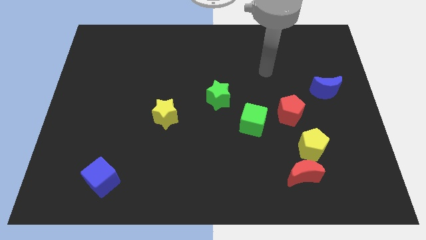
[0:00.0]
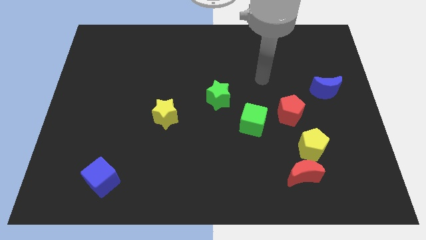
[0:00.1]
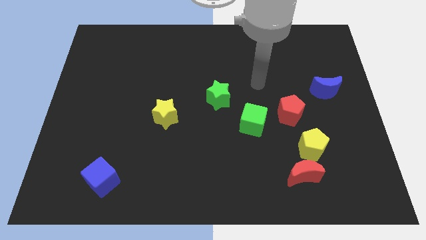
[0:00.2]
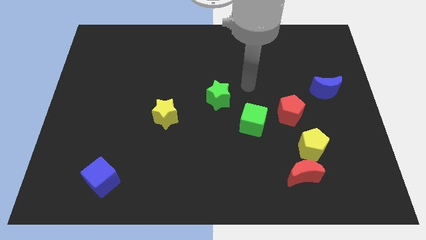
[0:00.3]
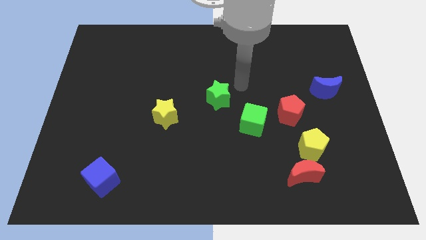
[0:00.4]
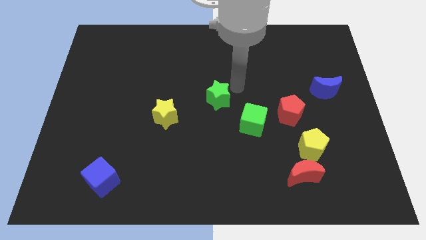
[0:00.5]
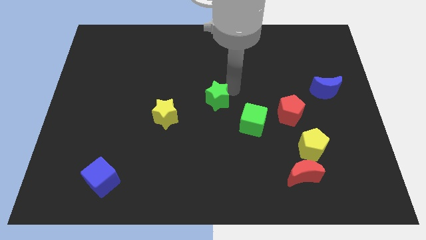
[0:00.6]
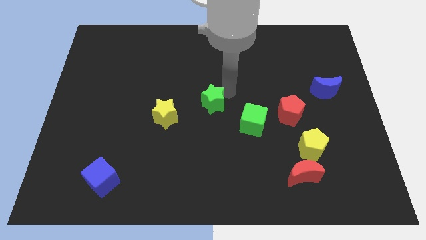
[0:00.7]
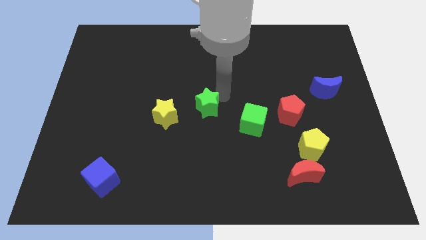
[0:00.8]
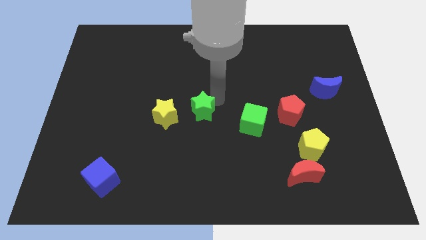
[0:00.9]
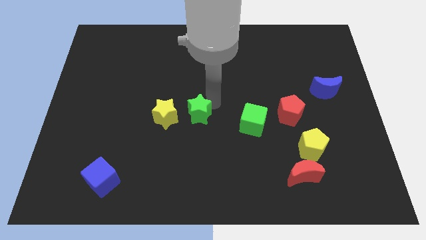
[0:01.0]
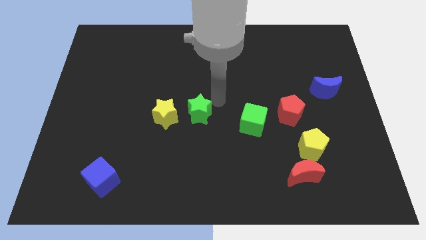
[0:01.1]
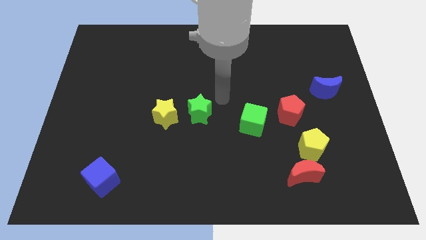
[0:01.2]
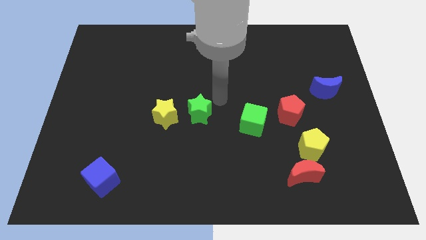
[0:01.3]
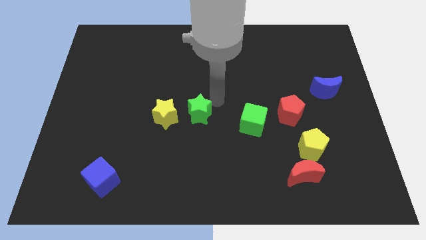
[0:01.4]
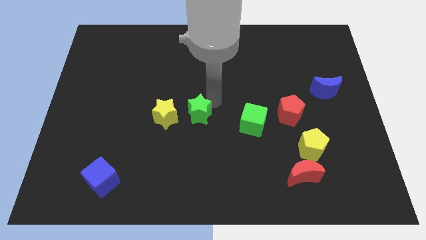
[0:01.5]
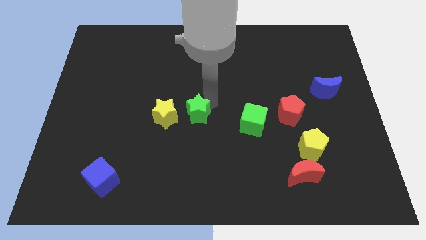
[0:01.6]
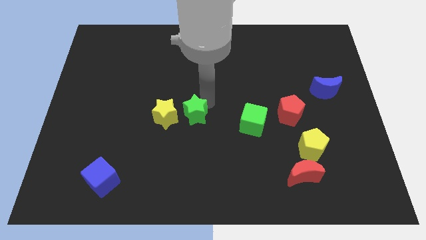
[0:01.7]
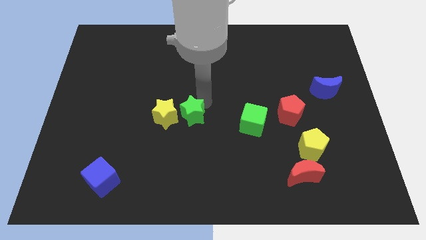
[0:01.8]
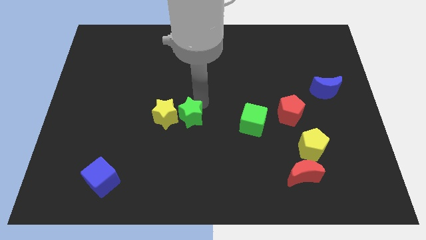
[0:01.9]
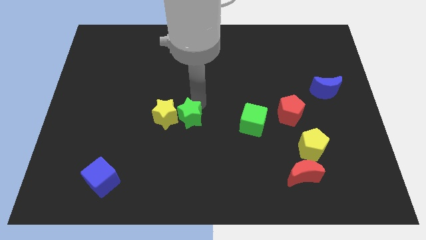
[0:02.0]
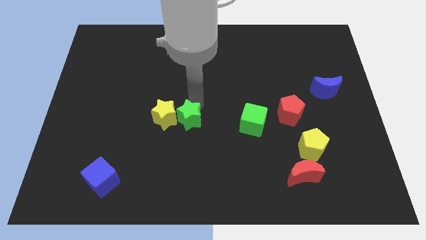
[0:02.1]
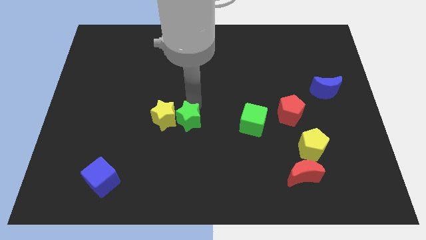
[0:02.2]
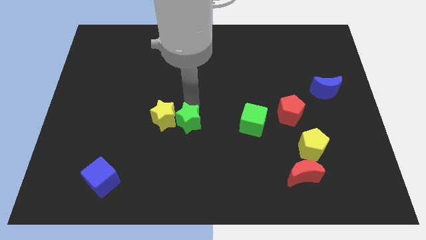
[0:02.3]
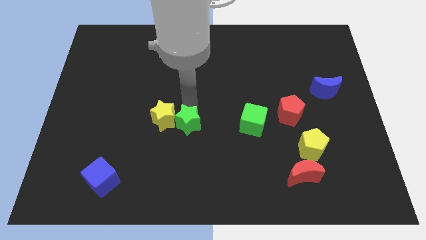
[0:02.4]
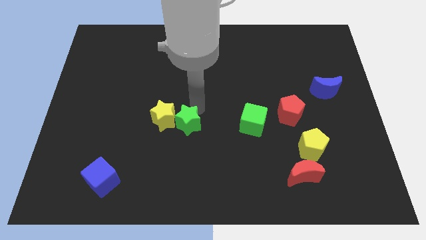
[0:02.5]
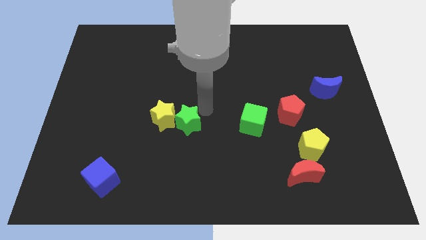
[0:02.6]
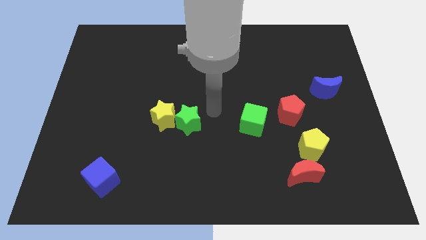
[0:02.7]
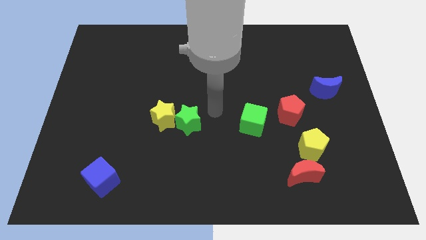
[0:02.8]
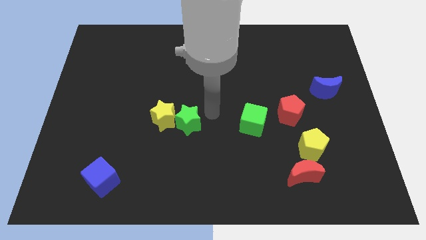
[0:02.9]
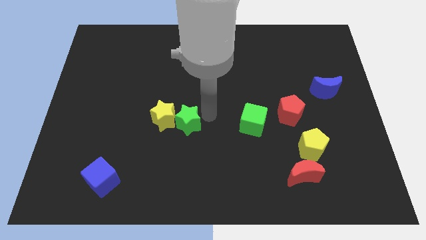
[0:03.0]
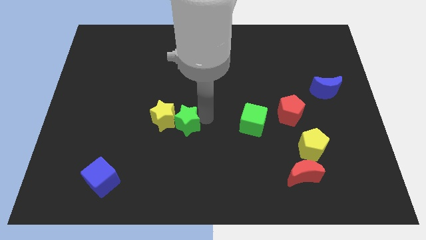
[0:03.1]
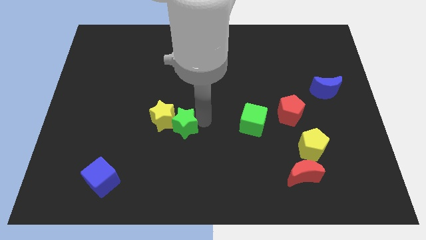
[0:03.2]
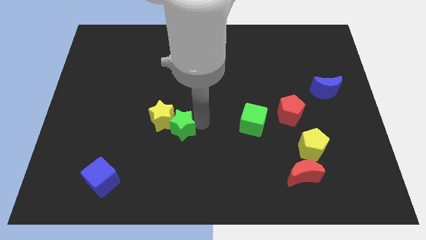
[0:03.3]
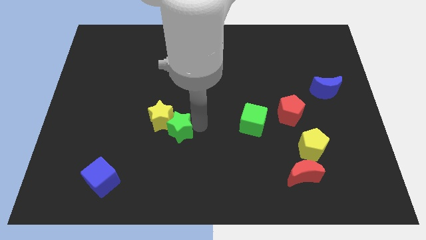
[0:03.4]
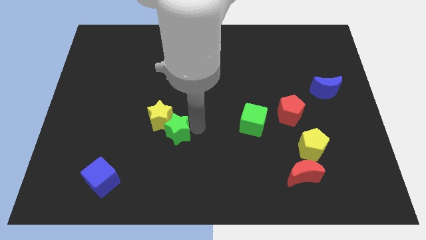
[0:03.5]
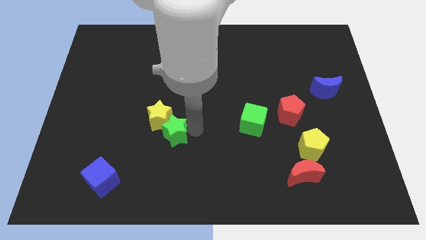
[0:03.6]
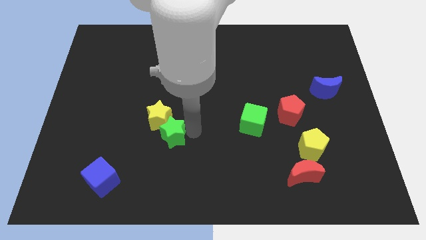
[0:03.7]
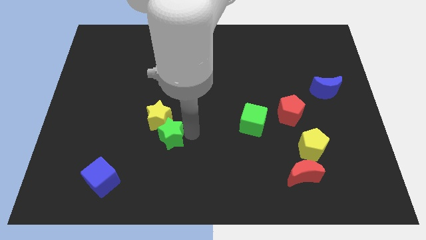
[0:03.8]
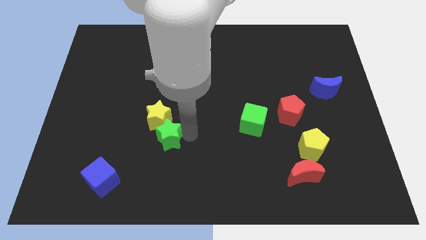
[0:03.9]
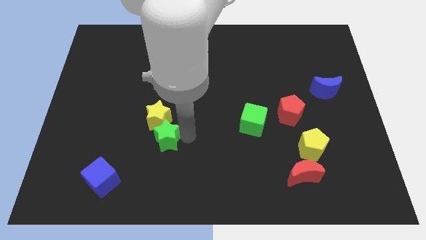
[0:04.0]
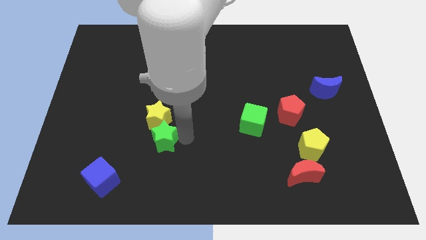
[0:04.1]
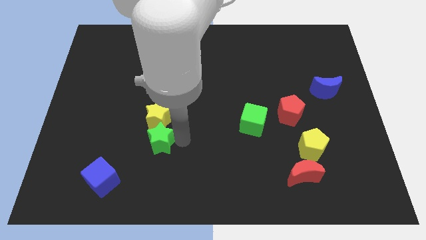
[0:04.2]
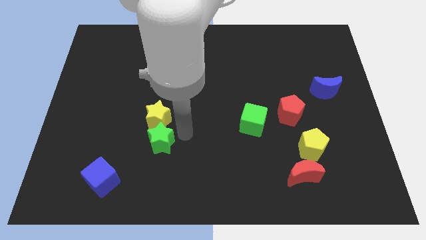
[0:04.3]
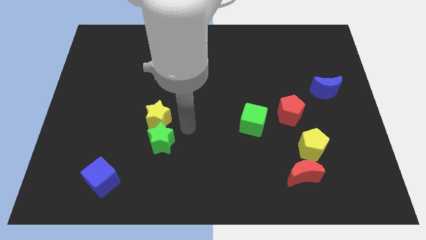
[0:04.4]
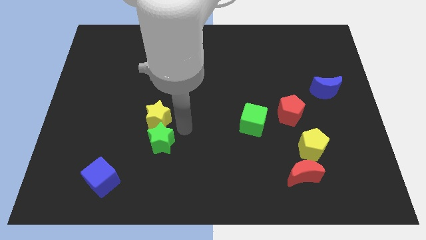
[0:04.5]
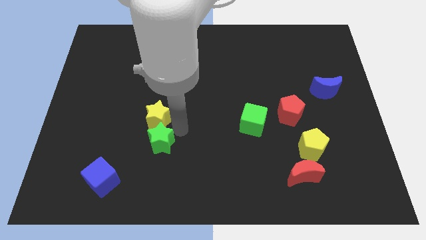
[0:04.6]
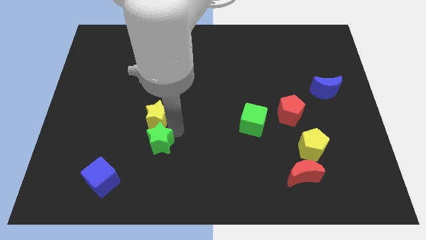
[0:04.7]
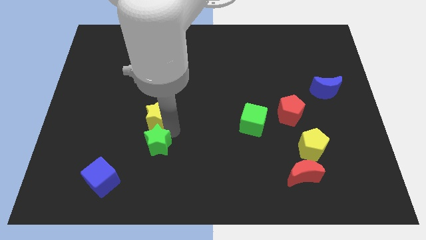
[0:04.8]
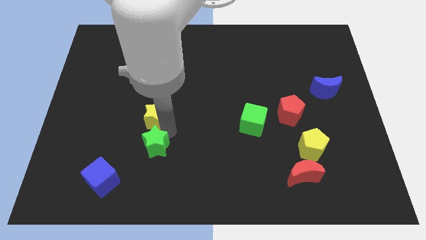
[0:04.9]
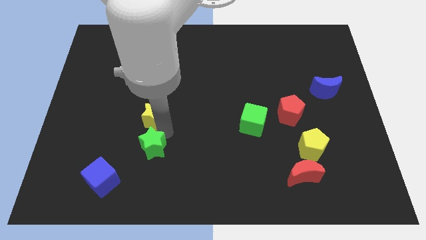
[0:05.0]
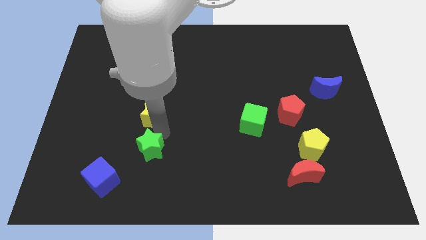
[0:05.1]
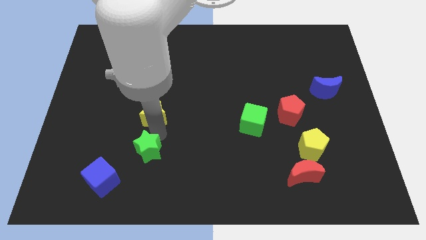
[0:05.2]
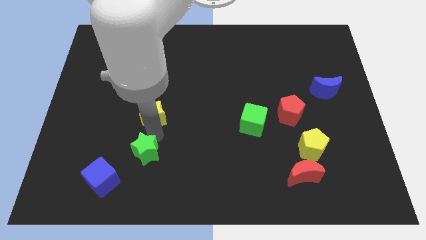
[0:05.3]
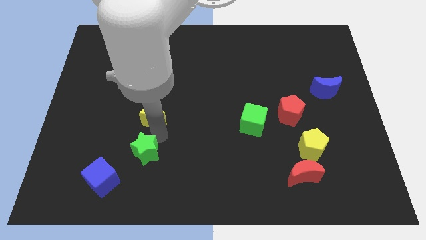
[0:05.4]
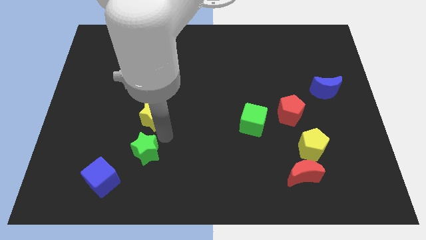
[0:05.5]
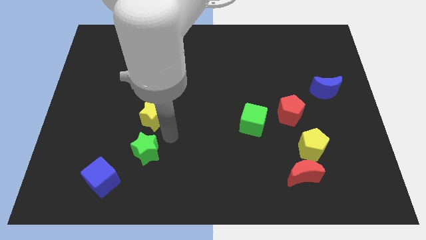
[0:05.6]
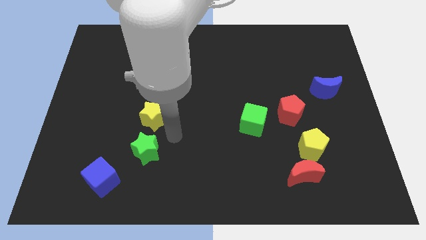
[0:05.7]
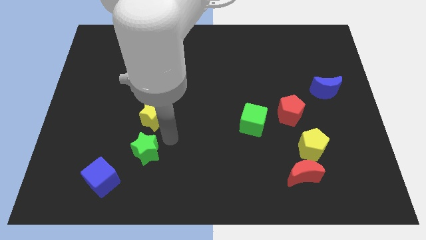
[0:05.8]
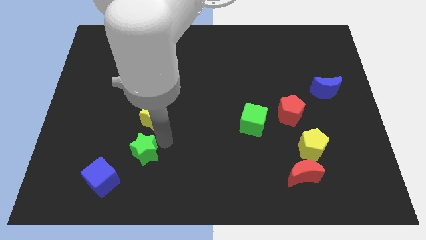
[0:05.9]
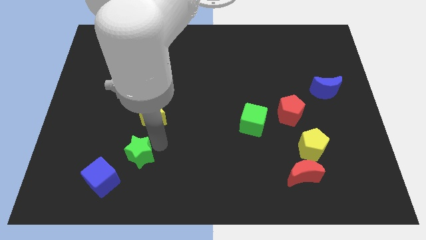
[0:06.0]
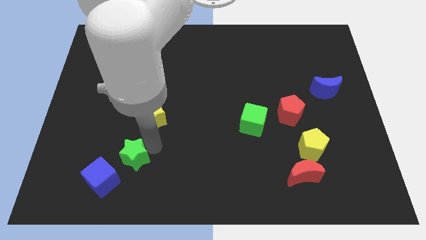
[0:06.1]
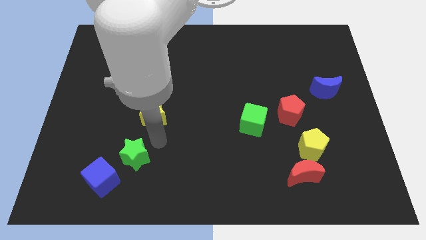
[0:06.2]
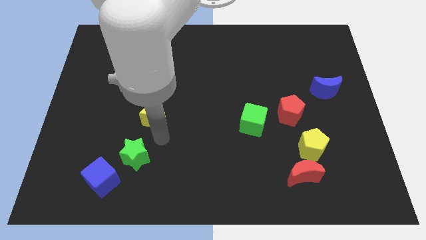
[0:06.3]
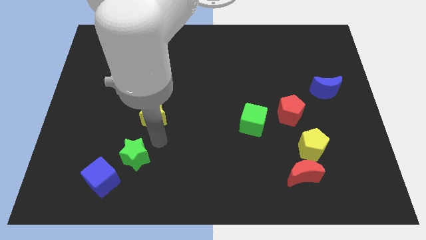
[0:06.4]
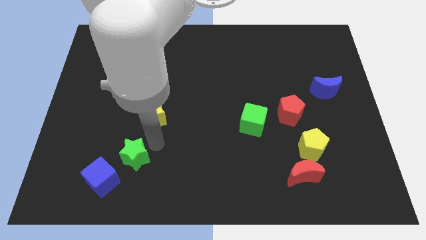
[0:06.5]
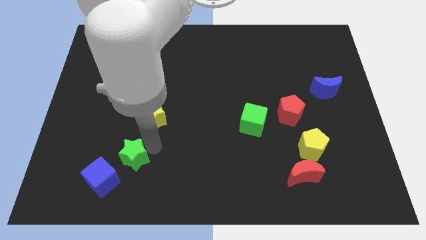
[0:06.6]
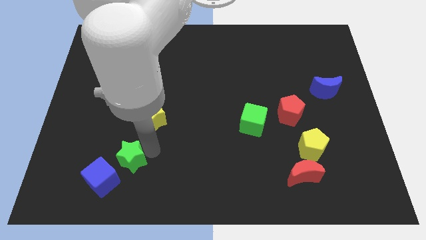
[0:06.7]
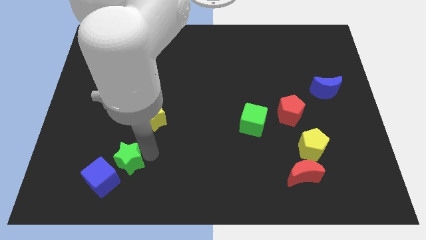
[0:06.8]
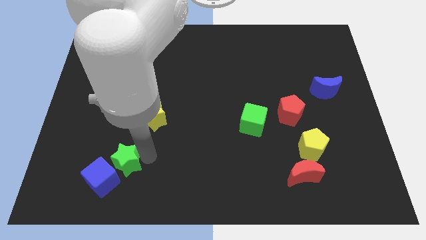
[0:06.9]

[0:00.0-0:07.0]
move the green star next to the blue cube
